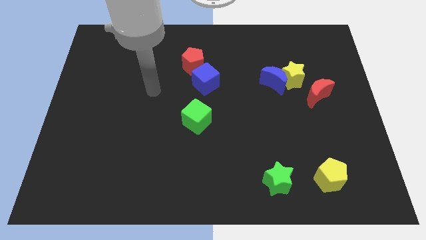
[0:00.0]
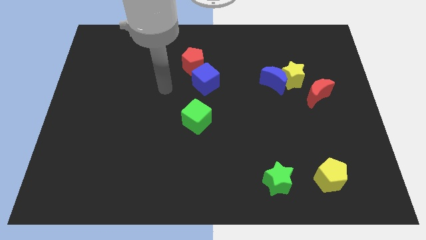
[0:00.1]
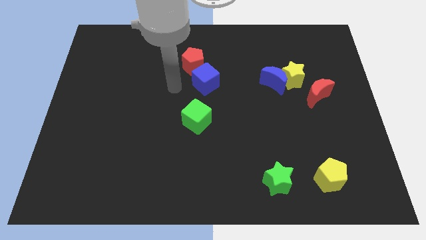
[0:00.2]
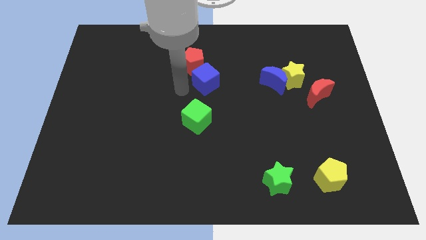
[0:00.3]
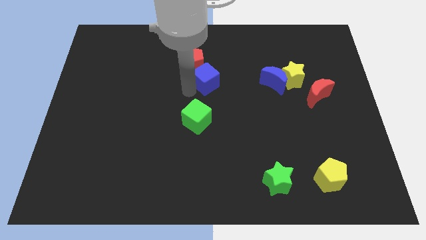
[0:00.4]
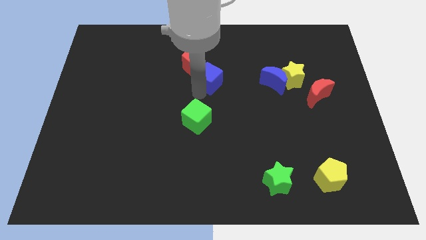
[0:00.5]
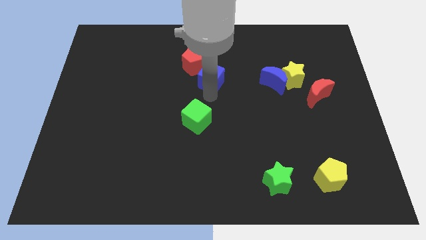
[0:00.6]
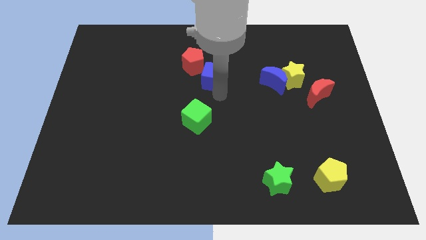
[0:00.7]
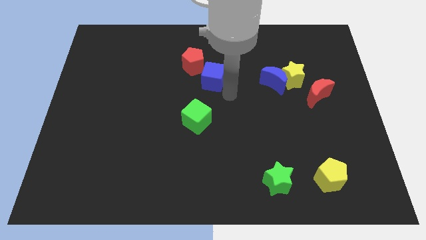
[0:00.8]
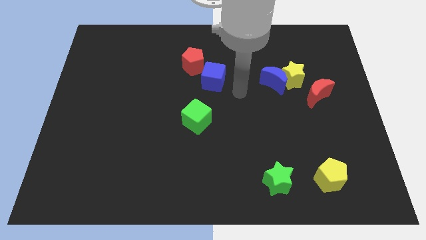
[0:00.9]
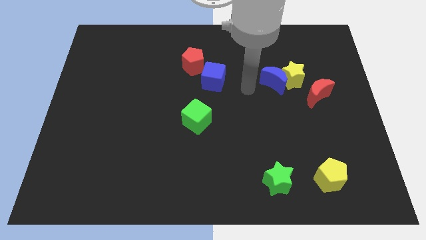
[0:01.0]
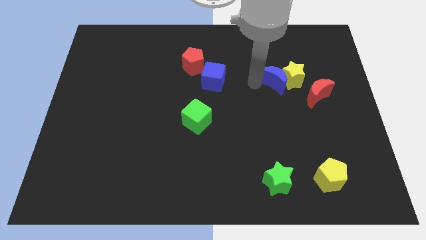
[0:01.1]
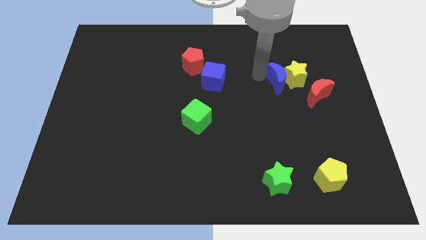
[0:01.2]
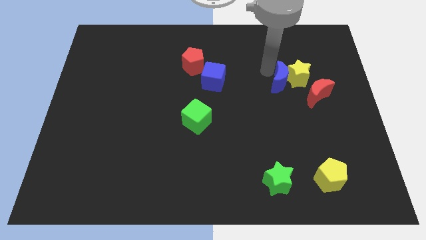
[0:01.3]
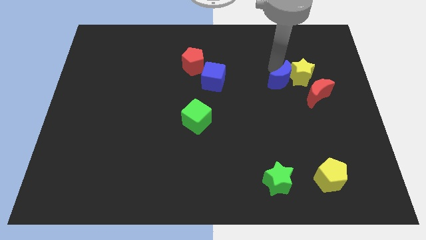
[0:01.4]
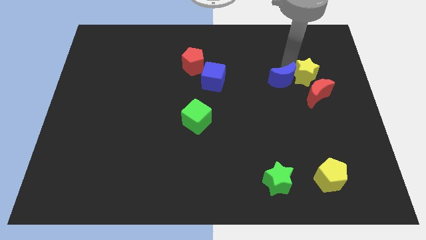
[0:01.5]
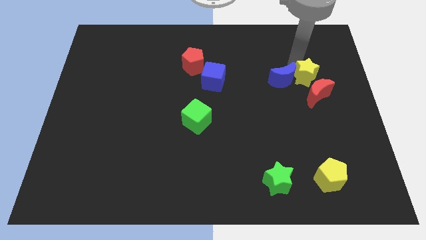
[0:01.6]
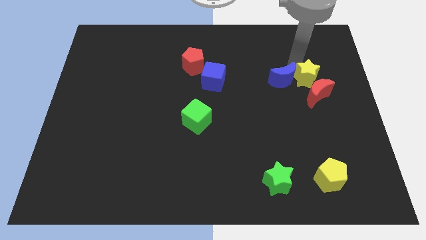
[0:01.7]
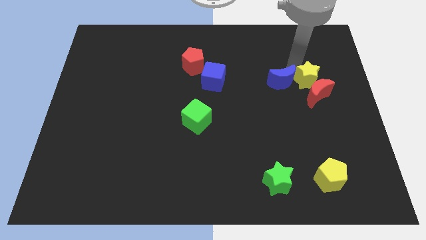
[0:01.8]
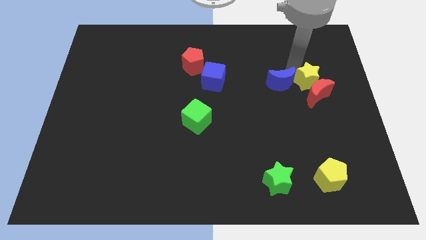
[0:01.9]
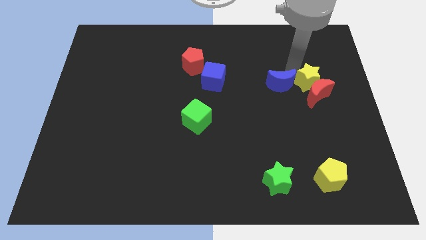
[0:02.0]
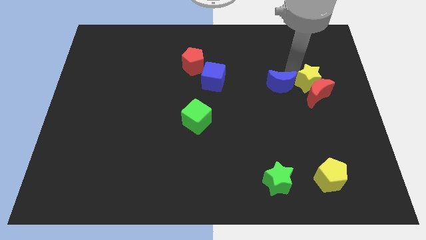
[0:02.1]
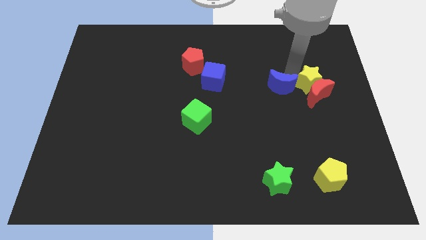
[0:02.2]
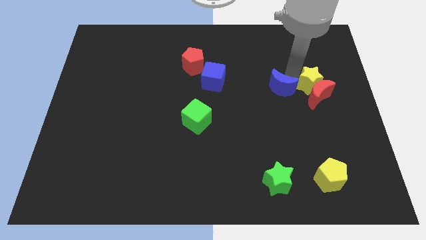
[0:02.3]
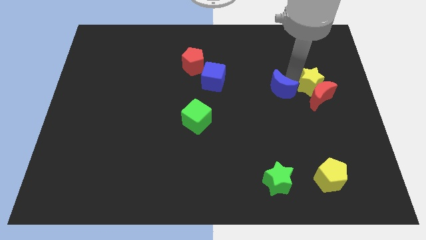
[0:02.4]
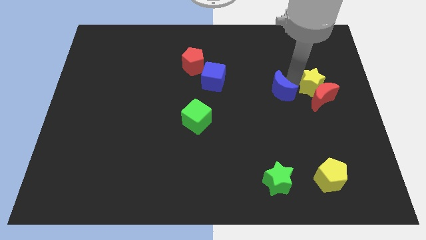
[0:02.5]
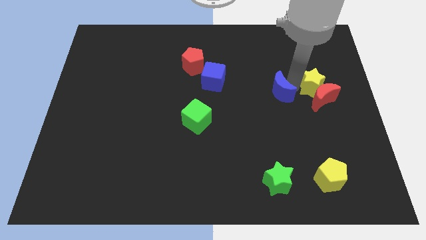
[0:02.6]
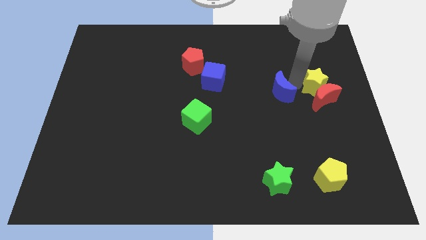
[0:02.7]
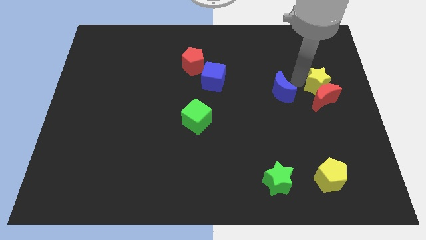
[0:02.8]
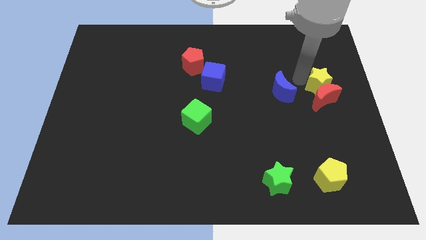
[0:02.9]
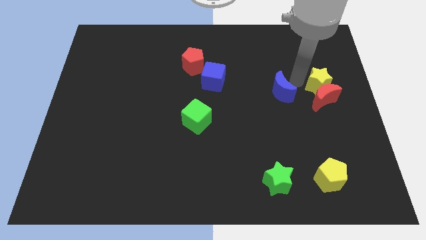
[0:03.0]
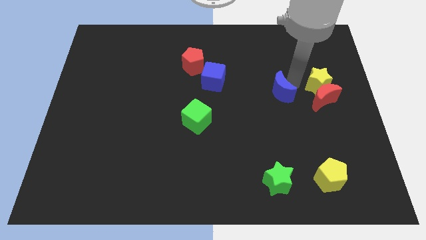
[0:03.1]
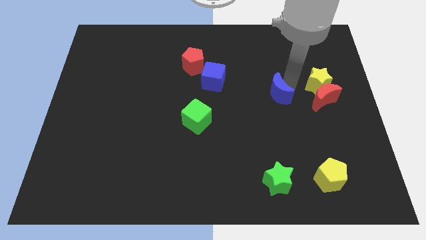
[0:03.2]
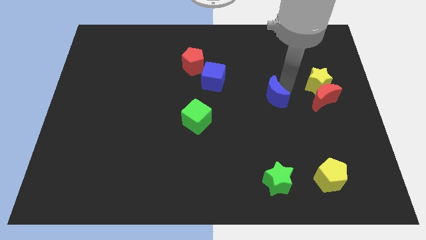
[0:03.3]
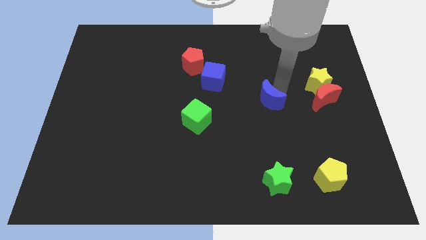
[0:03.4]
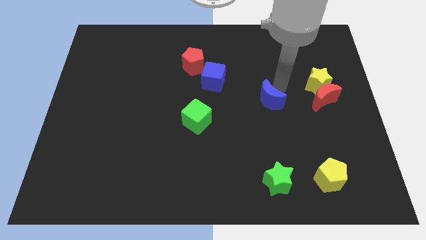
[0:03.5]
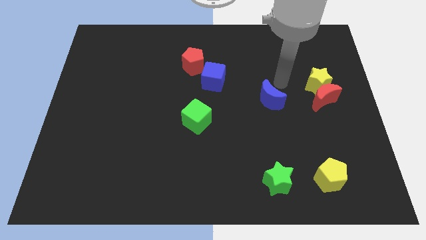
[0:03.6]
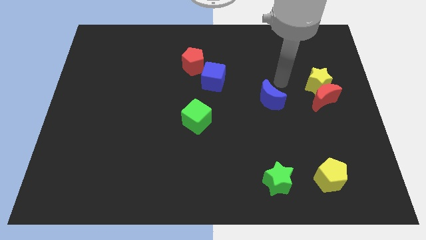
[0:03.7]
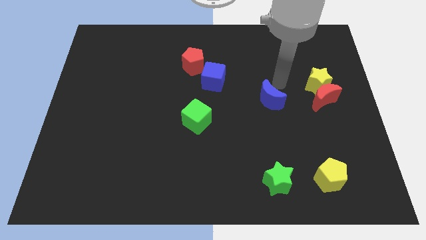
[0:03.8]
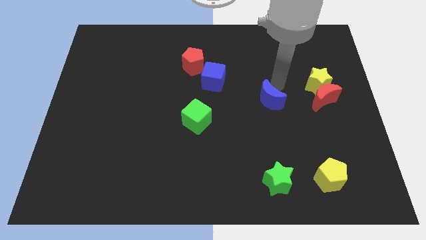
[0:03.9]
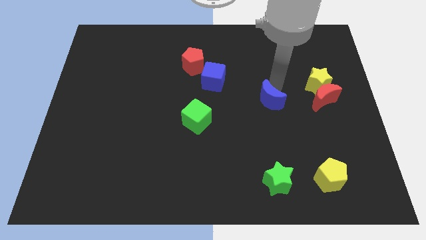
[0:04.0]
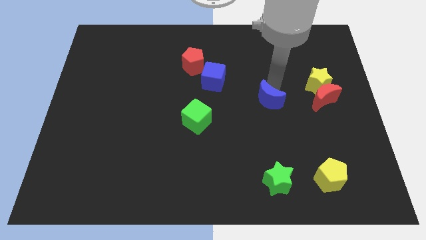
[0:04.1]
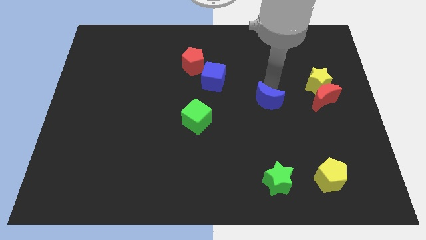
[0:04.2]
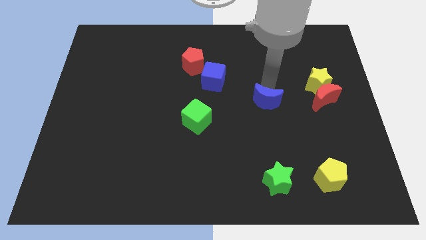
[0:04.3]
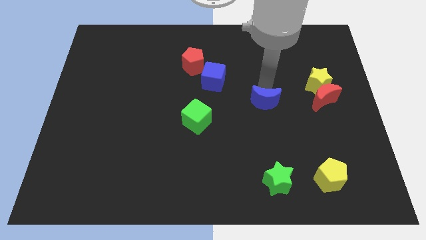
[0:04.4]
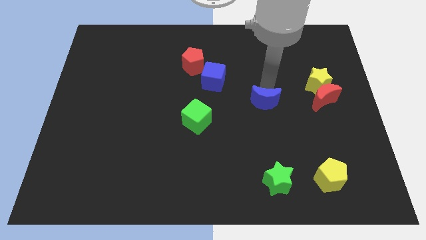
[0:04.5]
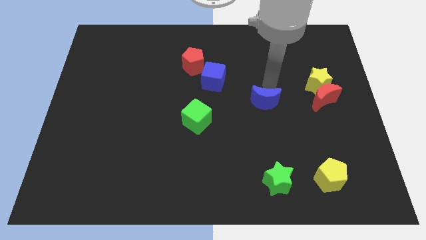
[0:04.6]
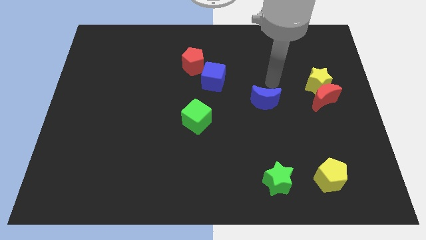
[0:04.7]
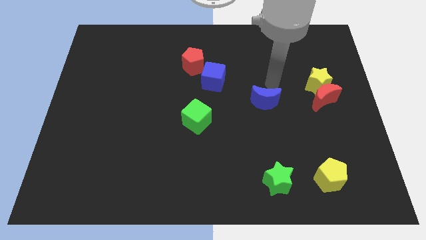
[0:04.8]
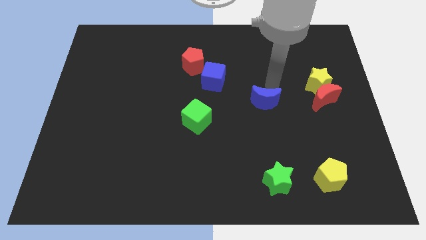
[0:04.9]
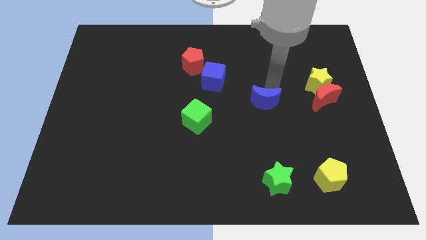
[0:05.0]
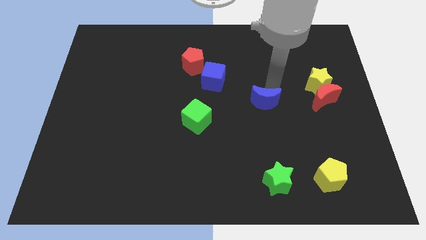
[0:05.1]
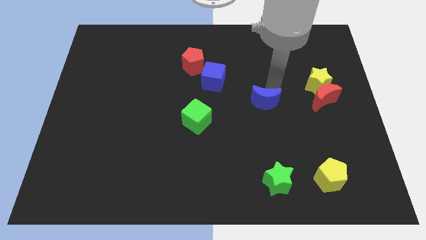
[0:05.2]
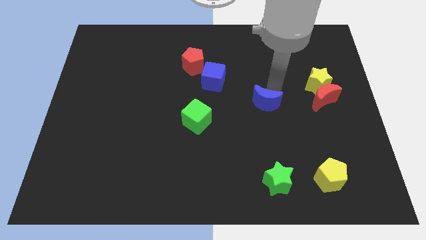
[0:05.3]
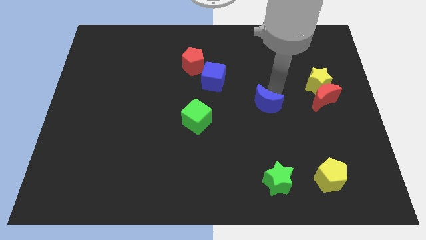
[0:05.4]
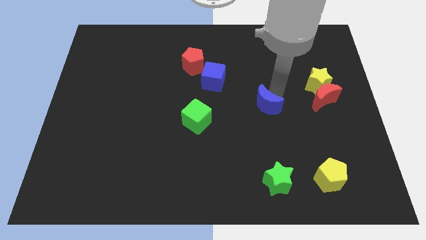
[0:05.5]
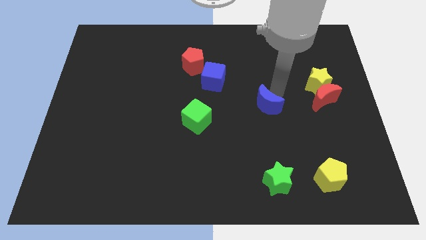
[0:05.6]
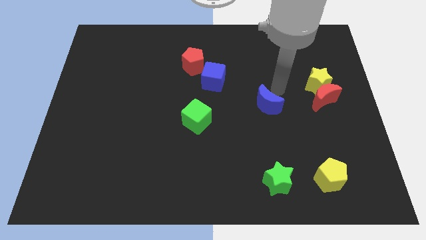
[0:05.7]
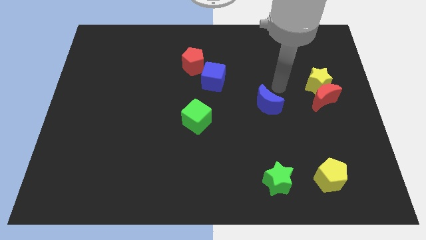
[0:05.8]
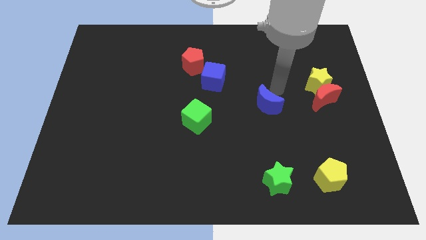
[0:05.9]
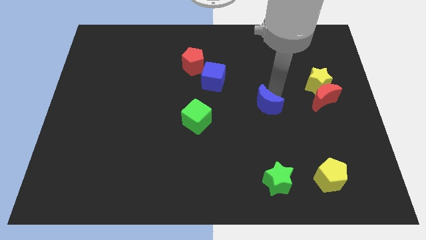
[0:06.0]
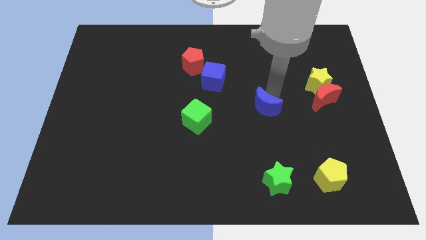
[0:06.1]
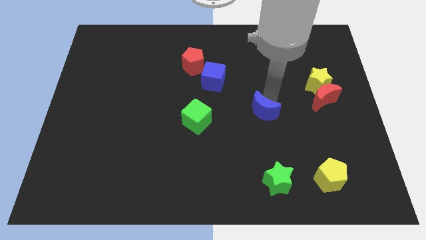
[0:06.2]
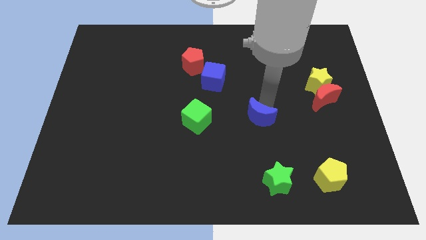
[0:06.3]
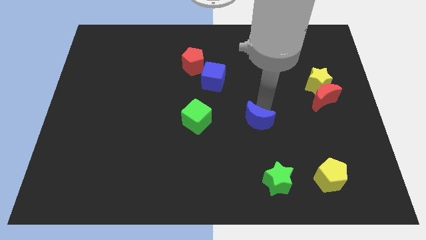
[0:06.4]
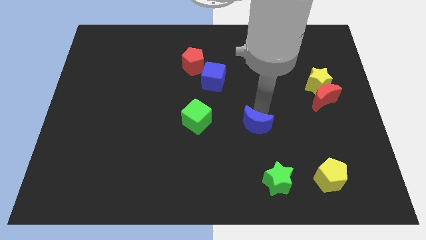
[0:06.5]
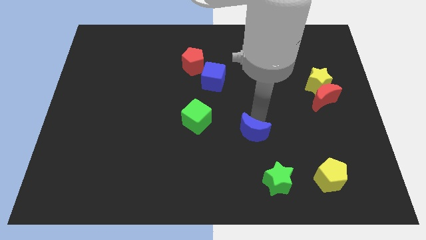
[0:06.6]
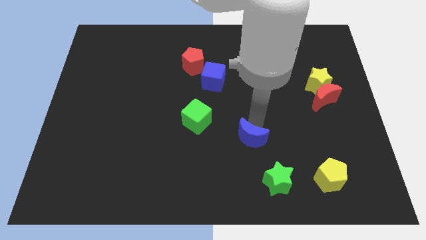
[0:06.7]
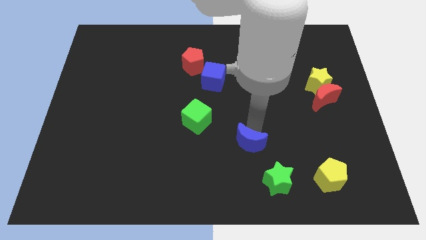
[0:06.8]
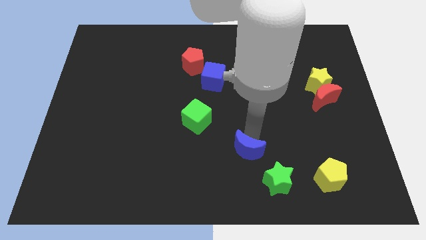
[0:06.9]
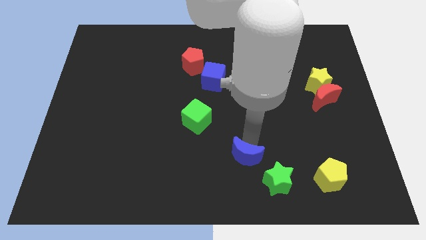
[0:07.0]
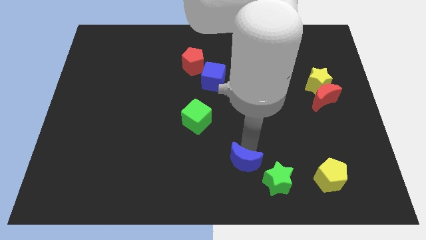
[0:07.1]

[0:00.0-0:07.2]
put the blue moon to the bottom side

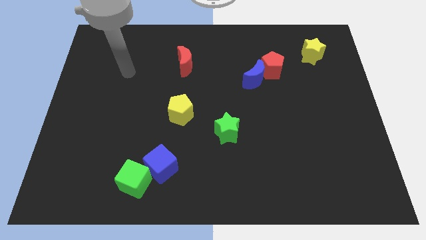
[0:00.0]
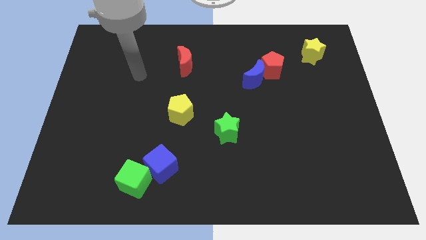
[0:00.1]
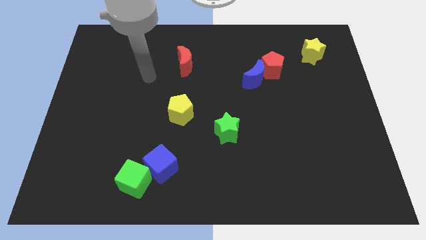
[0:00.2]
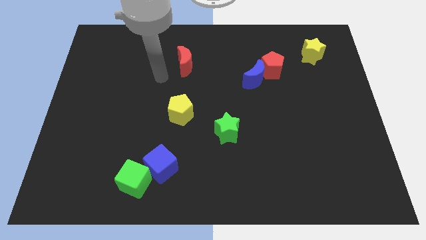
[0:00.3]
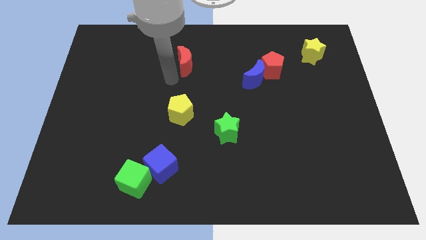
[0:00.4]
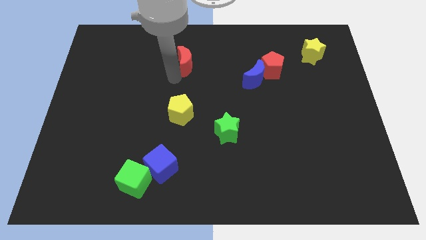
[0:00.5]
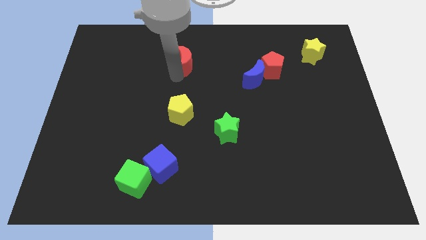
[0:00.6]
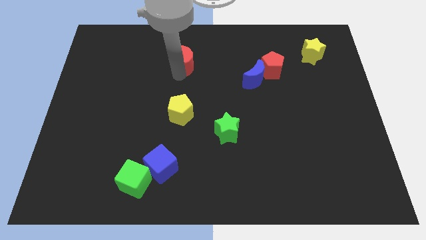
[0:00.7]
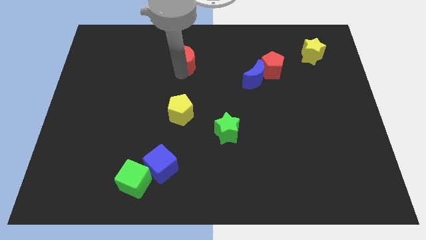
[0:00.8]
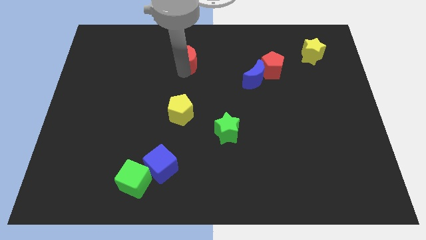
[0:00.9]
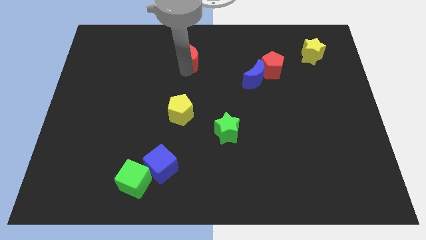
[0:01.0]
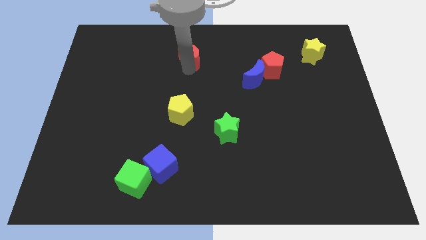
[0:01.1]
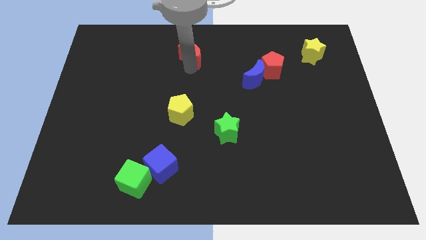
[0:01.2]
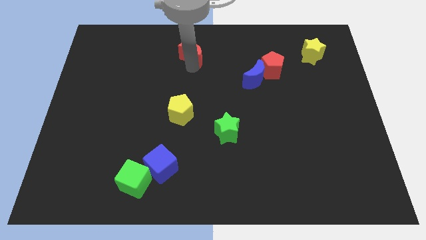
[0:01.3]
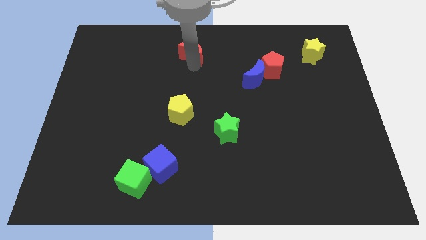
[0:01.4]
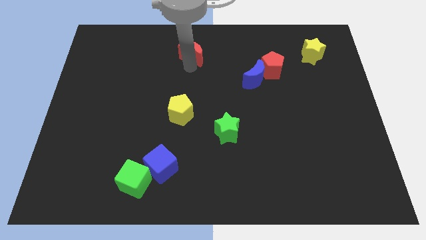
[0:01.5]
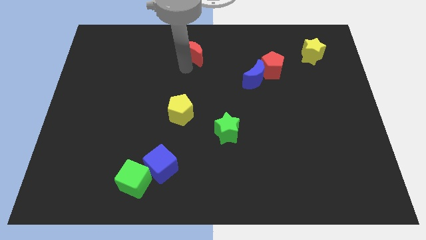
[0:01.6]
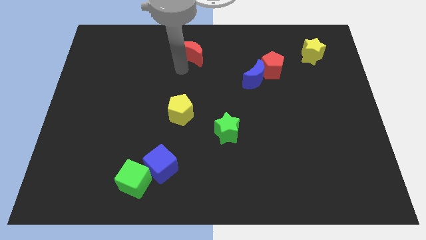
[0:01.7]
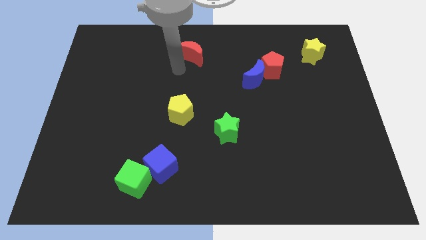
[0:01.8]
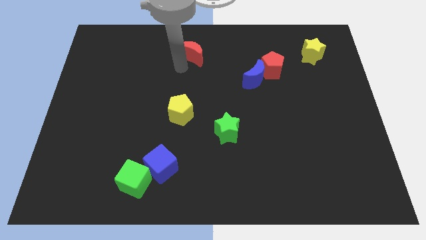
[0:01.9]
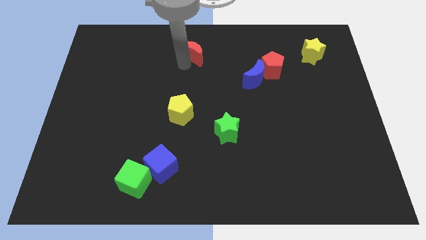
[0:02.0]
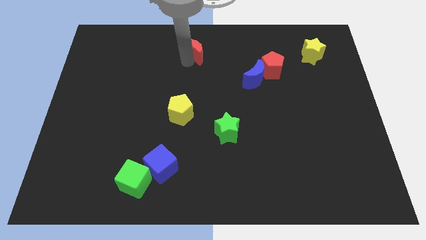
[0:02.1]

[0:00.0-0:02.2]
slide the red moon to the top
